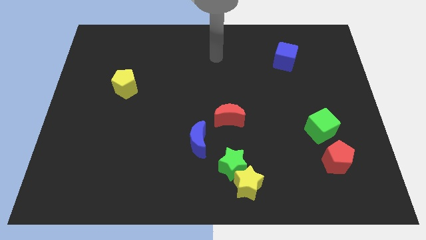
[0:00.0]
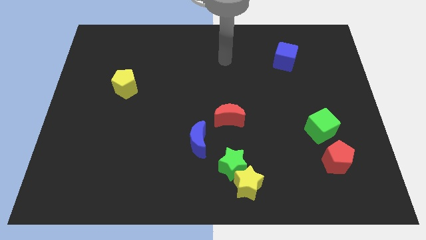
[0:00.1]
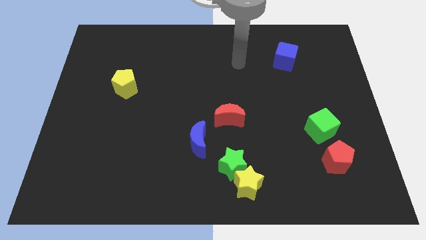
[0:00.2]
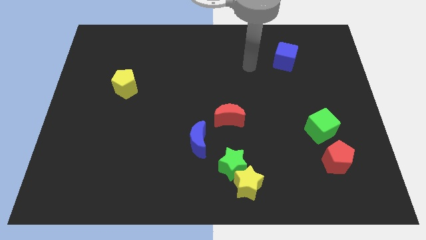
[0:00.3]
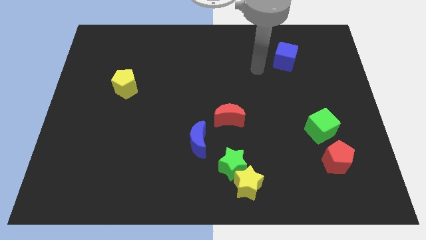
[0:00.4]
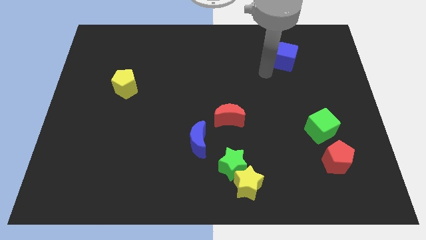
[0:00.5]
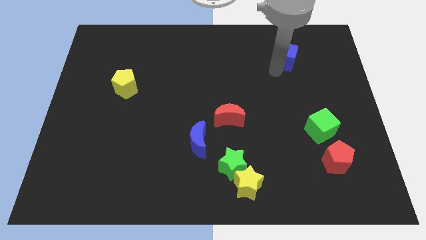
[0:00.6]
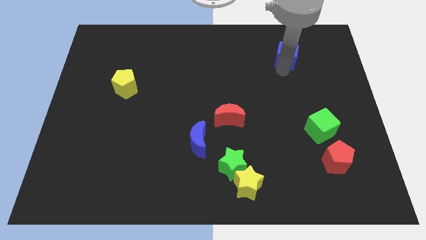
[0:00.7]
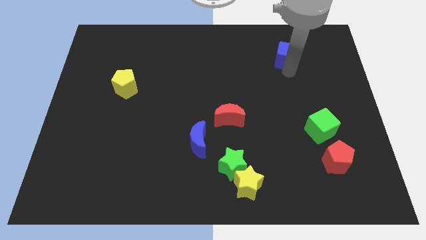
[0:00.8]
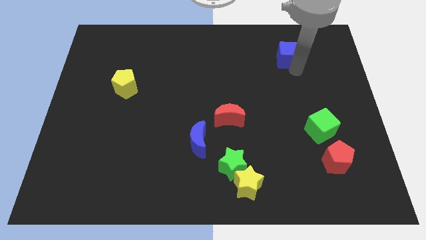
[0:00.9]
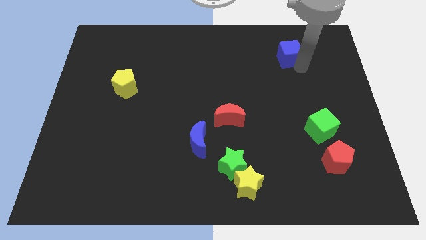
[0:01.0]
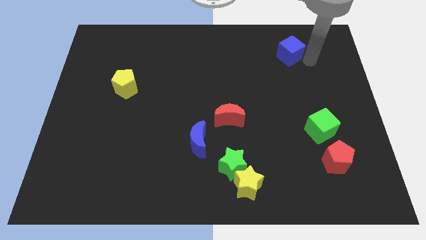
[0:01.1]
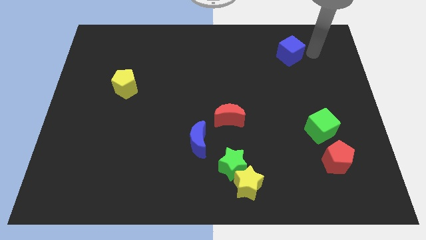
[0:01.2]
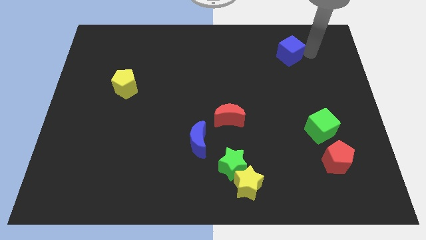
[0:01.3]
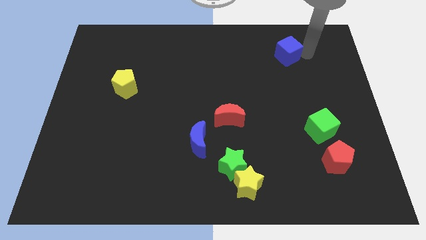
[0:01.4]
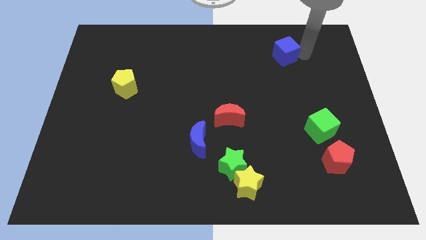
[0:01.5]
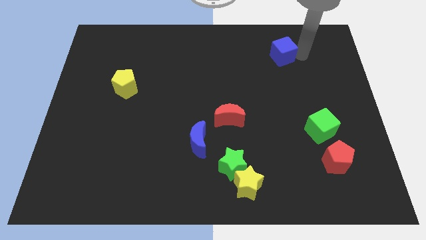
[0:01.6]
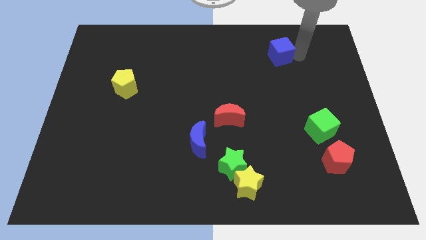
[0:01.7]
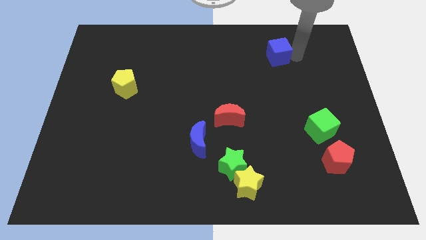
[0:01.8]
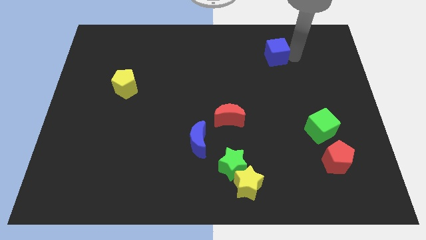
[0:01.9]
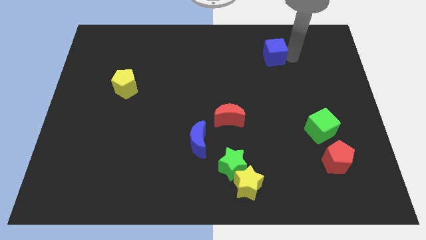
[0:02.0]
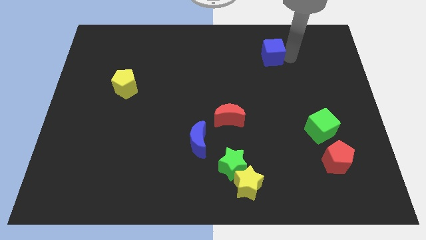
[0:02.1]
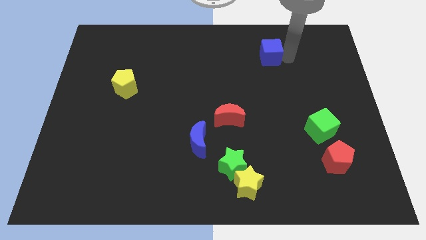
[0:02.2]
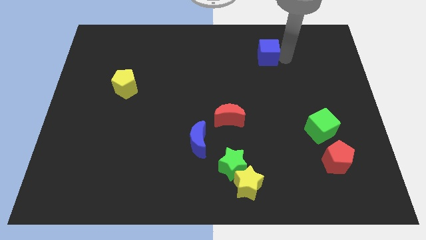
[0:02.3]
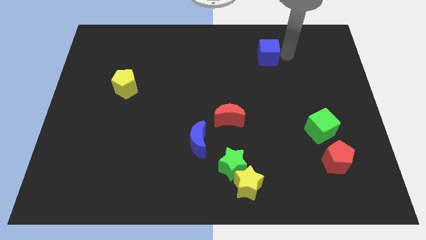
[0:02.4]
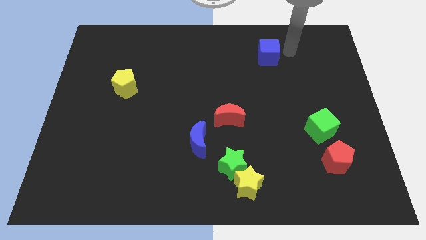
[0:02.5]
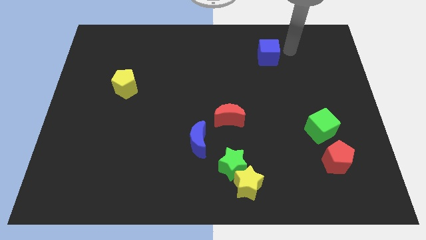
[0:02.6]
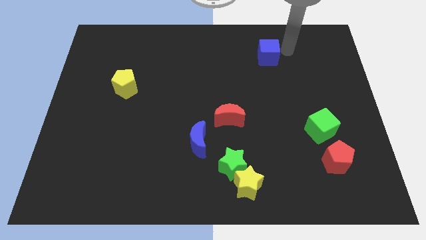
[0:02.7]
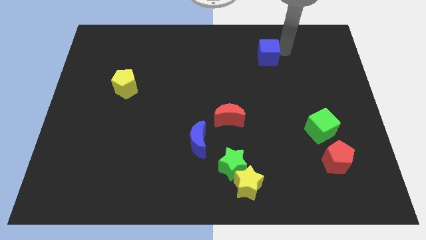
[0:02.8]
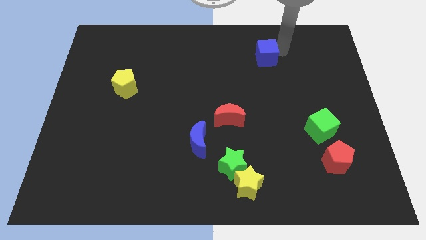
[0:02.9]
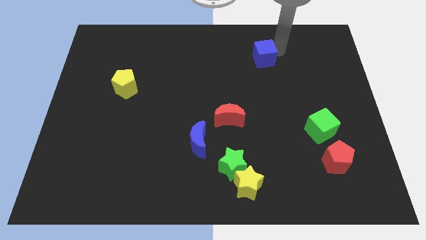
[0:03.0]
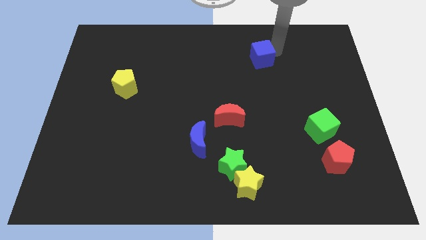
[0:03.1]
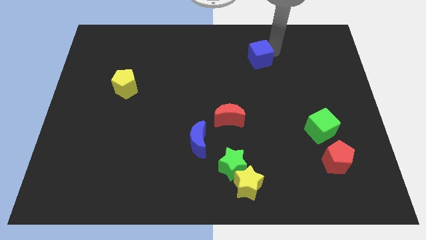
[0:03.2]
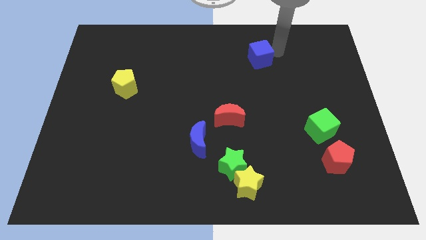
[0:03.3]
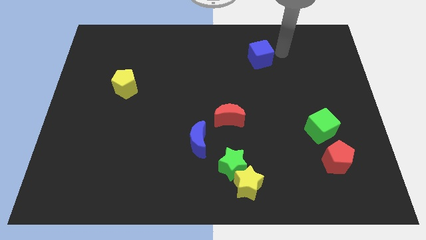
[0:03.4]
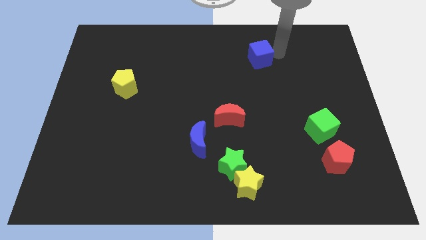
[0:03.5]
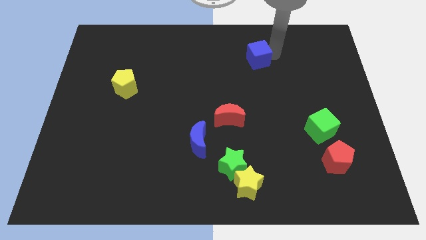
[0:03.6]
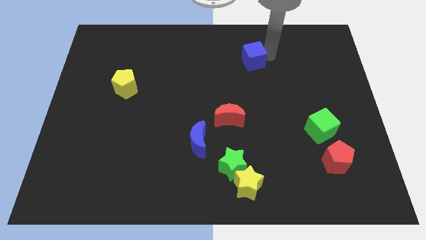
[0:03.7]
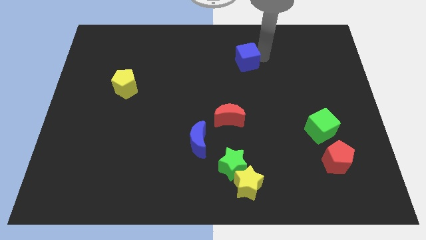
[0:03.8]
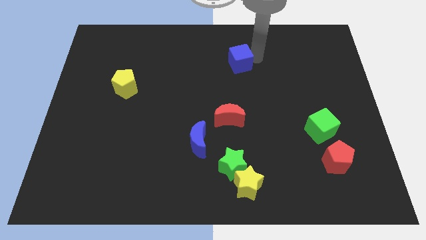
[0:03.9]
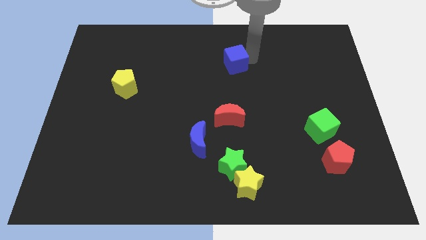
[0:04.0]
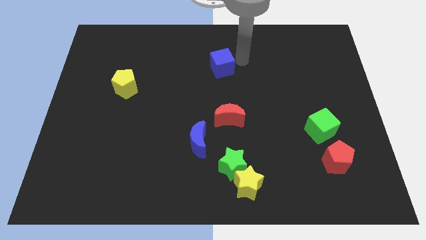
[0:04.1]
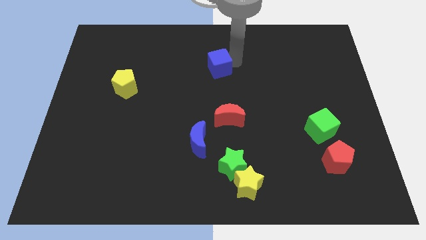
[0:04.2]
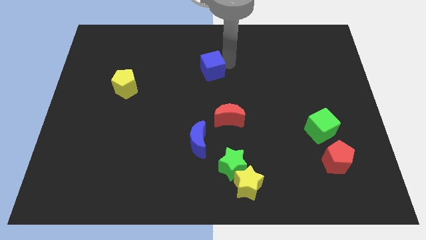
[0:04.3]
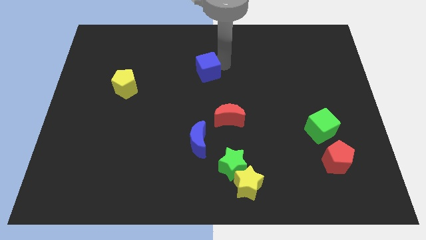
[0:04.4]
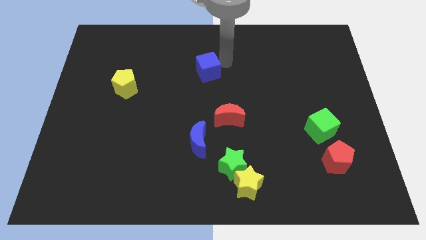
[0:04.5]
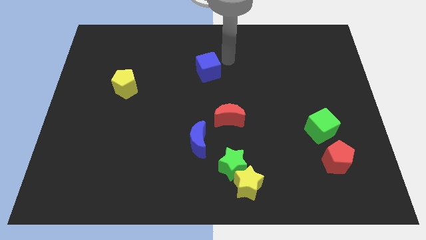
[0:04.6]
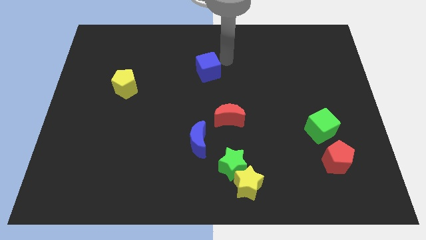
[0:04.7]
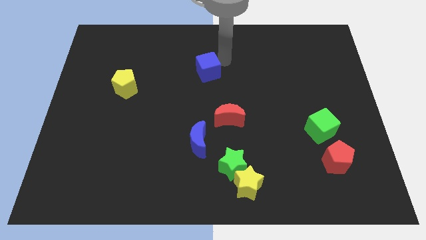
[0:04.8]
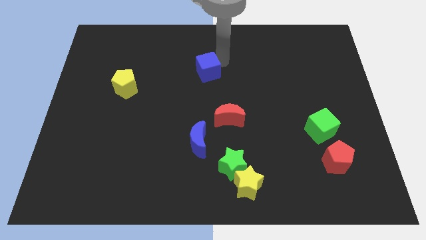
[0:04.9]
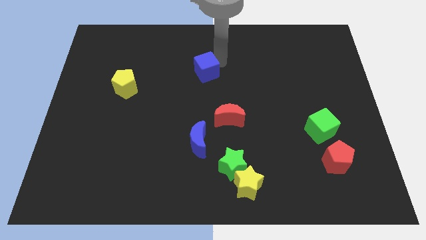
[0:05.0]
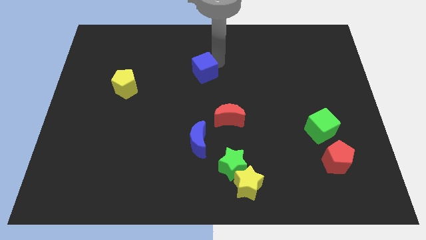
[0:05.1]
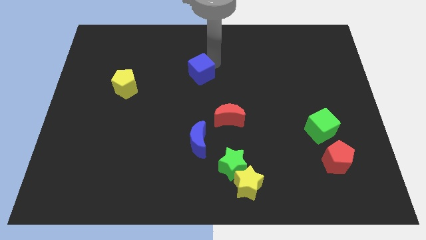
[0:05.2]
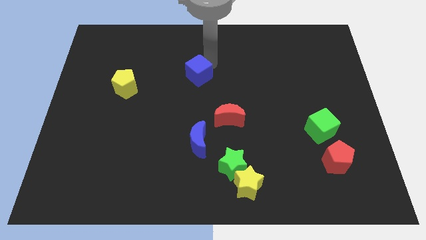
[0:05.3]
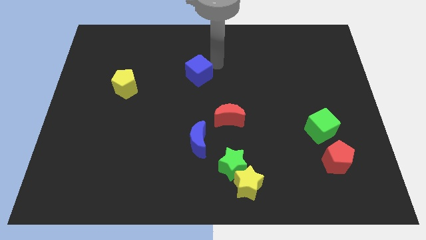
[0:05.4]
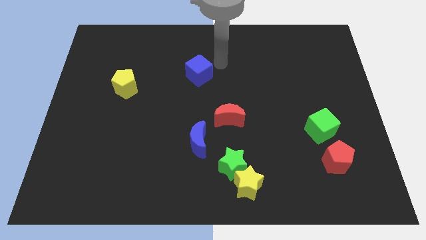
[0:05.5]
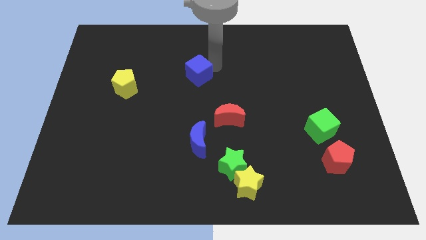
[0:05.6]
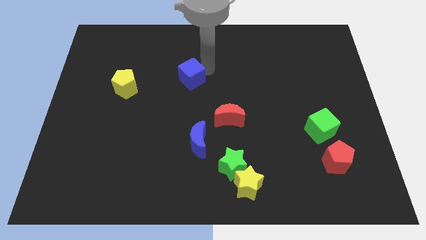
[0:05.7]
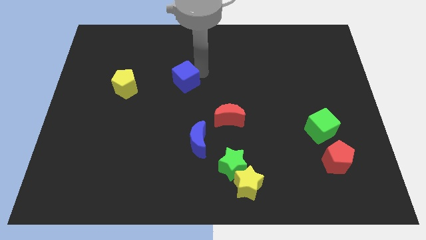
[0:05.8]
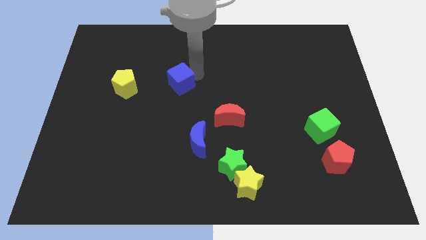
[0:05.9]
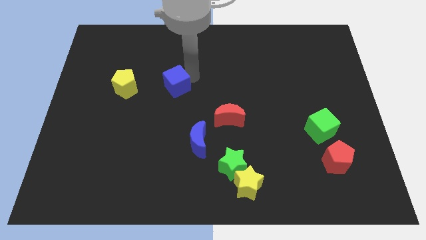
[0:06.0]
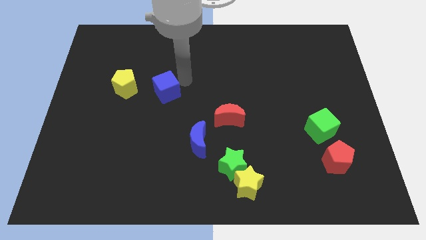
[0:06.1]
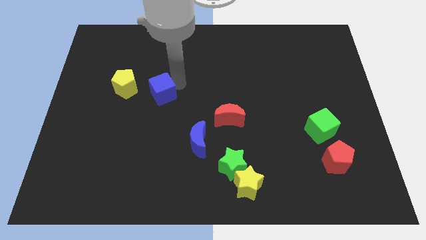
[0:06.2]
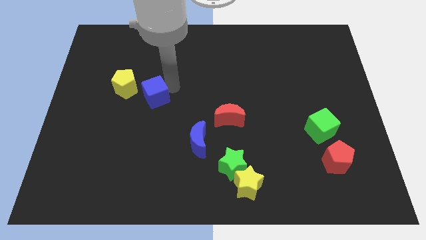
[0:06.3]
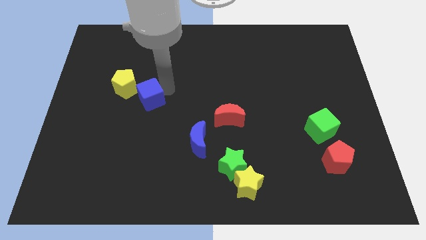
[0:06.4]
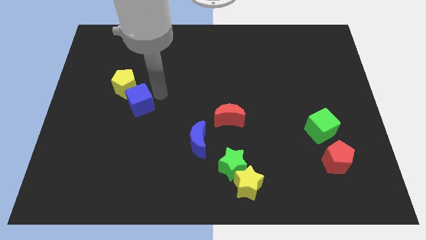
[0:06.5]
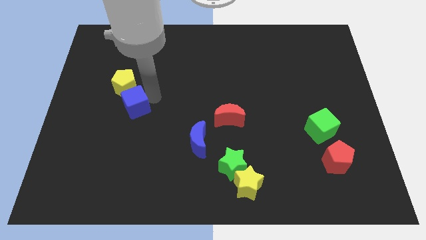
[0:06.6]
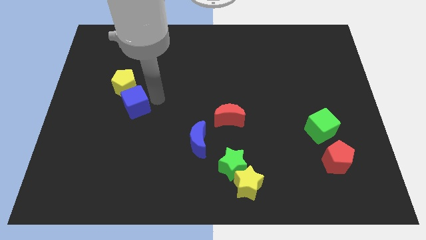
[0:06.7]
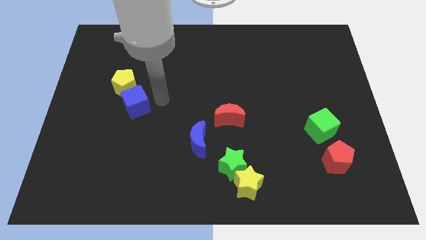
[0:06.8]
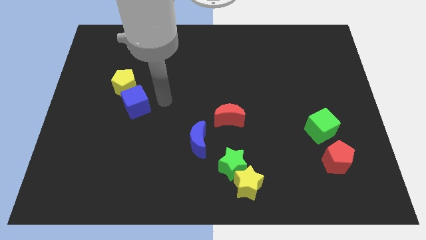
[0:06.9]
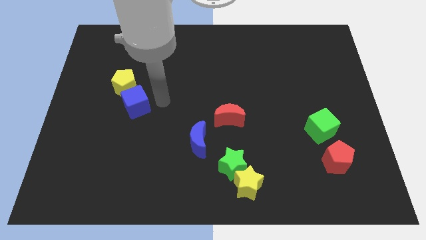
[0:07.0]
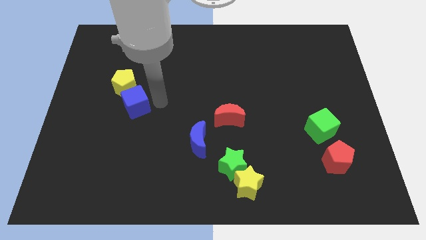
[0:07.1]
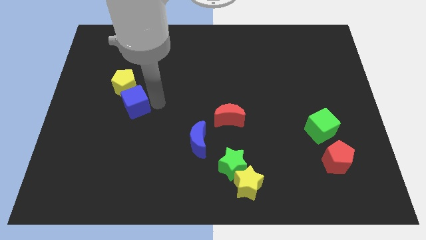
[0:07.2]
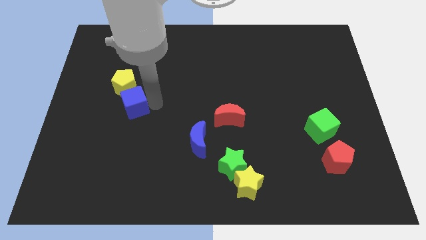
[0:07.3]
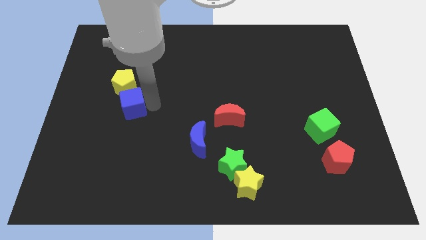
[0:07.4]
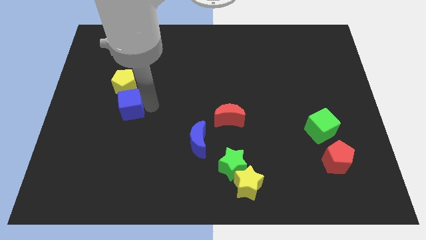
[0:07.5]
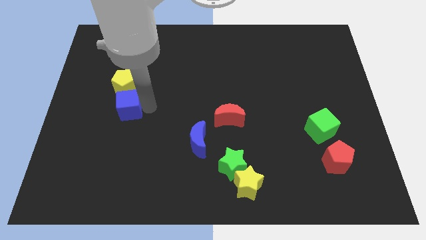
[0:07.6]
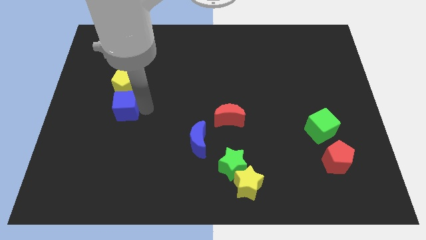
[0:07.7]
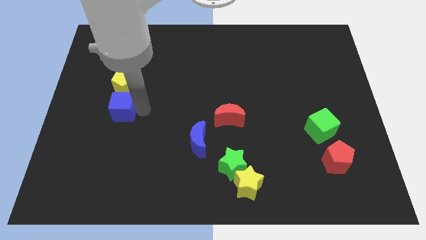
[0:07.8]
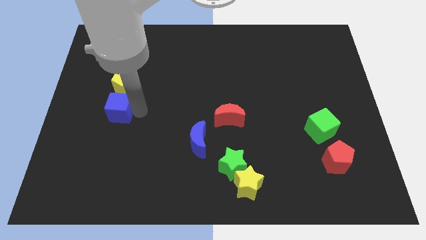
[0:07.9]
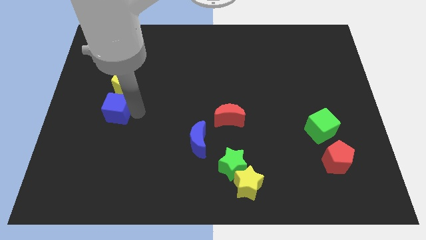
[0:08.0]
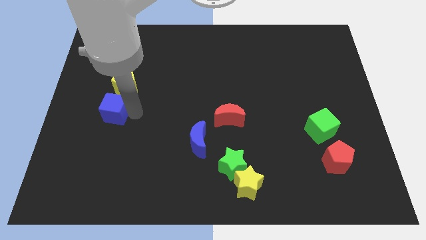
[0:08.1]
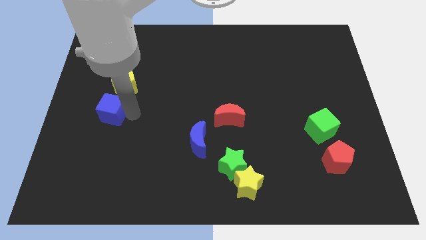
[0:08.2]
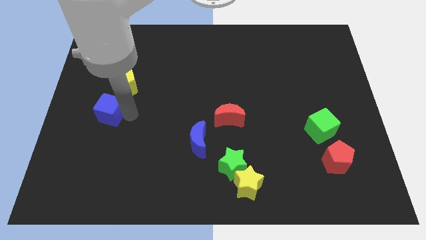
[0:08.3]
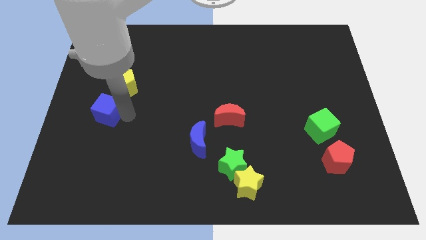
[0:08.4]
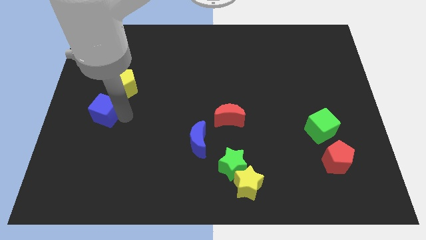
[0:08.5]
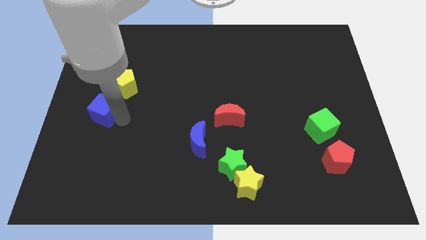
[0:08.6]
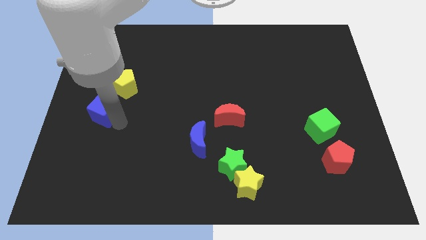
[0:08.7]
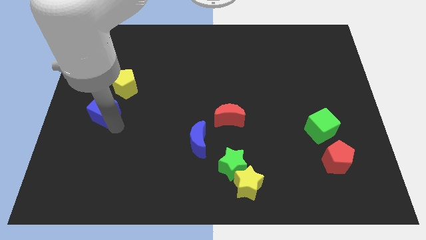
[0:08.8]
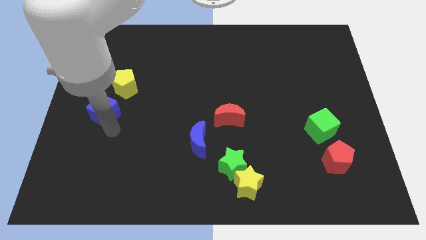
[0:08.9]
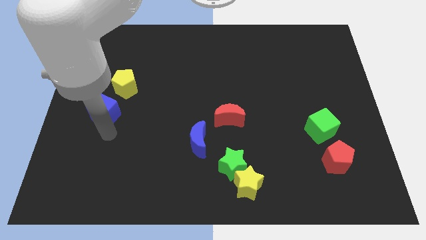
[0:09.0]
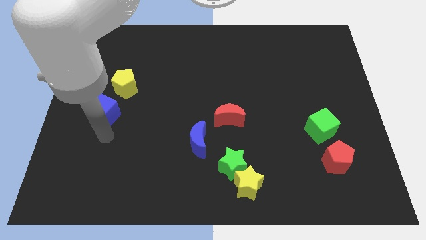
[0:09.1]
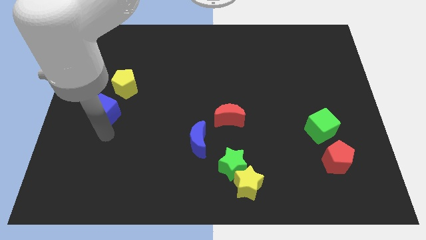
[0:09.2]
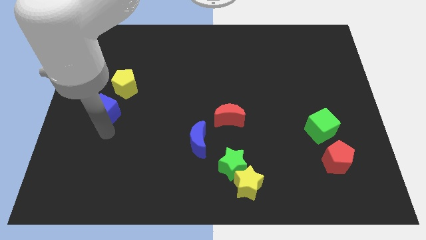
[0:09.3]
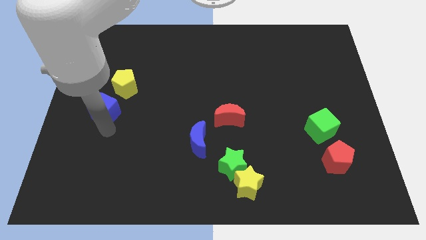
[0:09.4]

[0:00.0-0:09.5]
move the blue cube to the left side of the board
